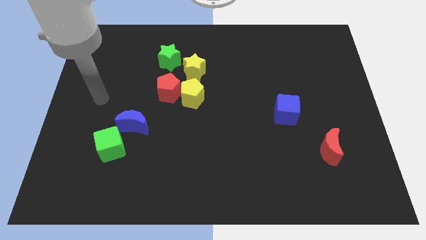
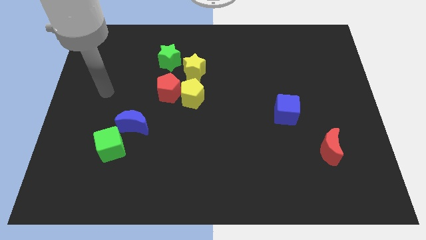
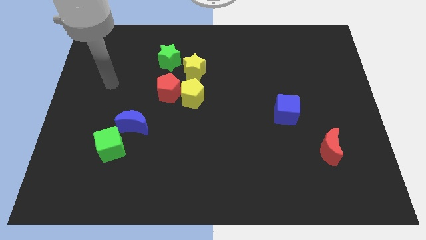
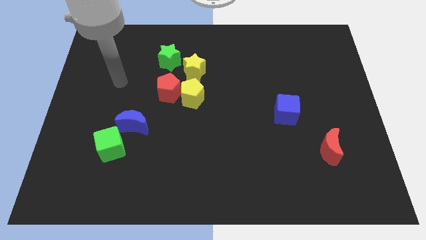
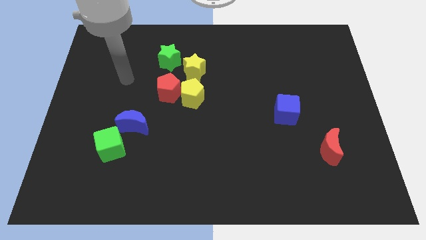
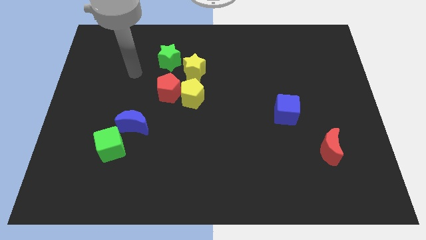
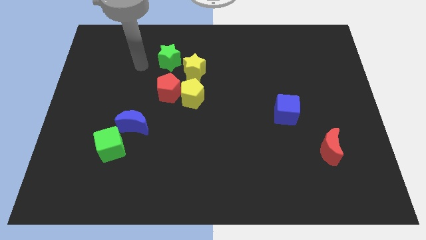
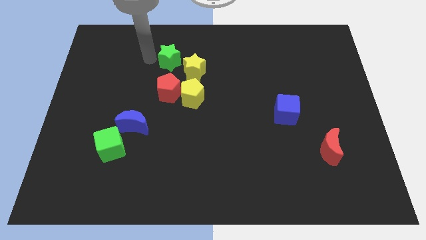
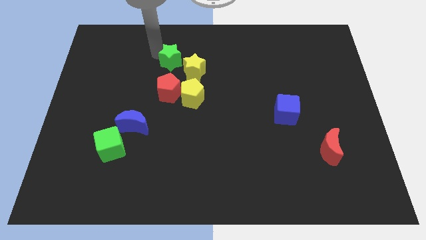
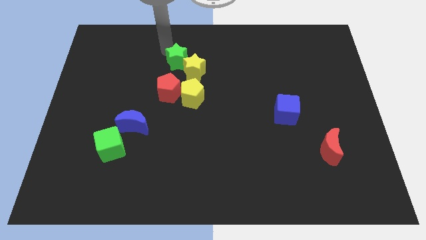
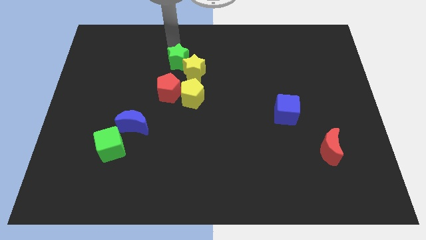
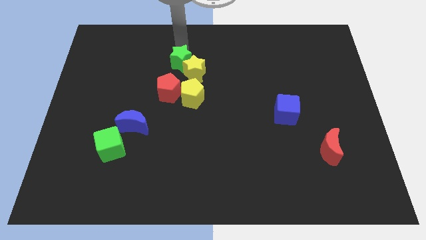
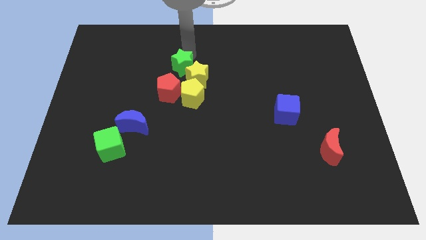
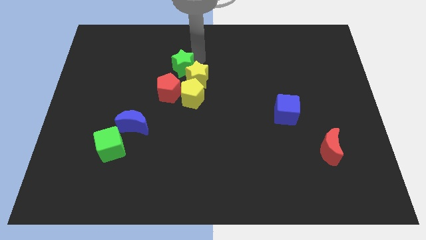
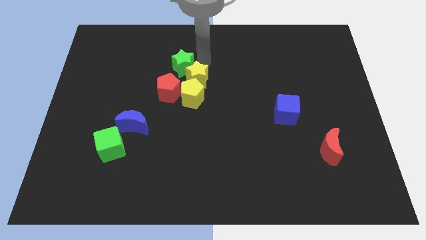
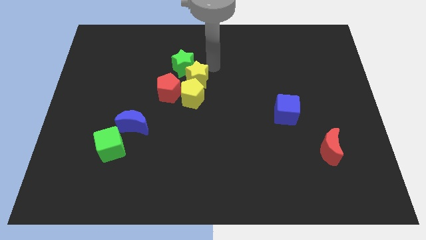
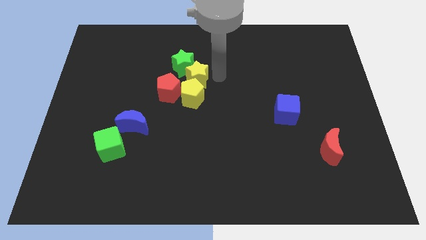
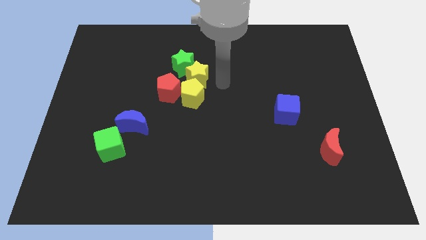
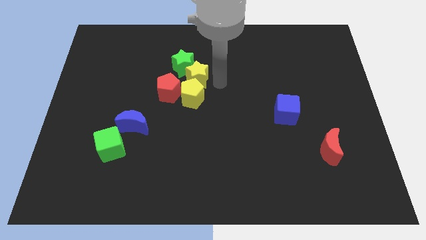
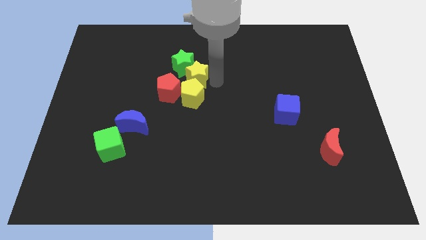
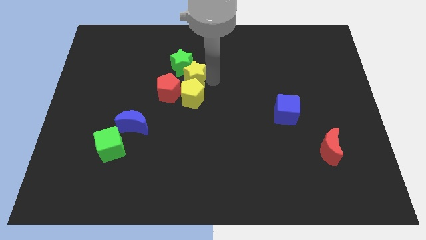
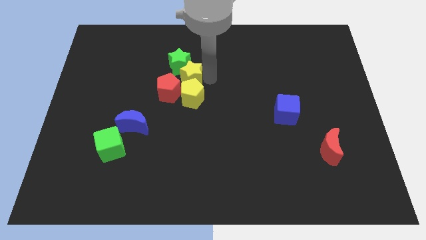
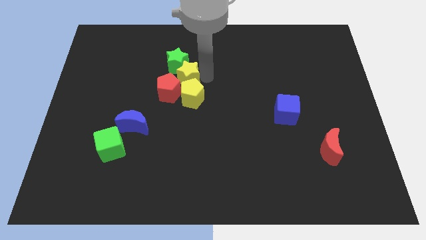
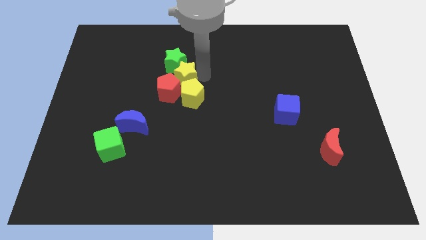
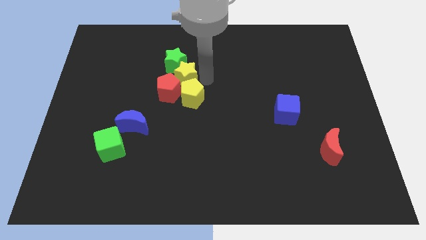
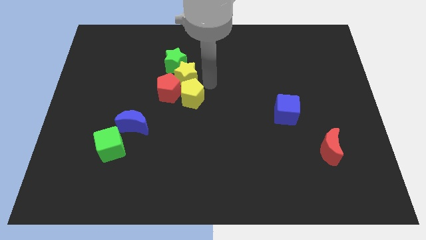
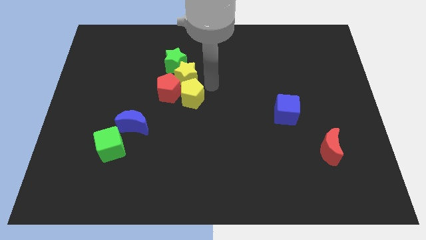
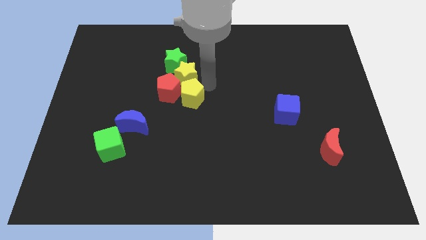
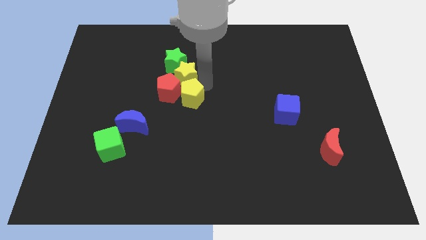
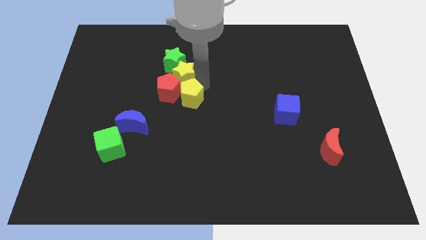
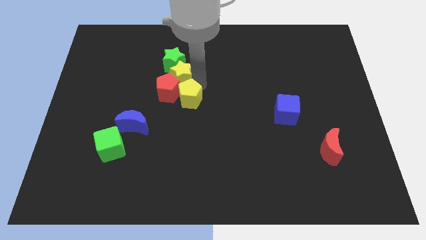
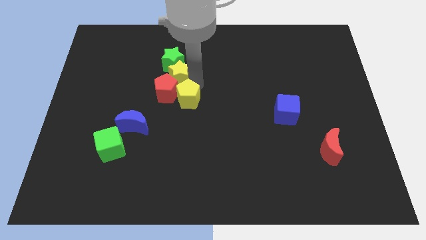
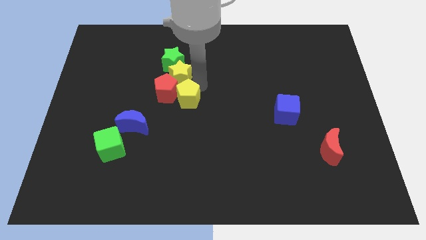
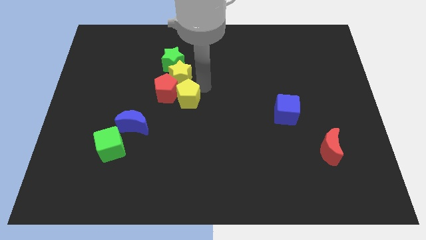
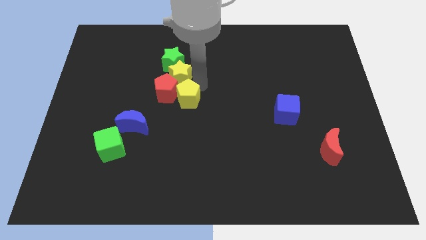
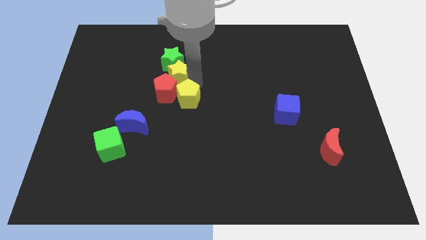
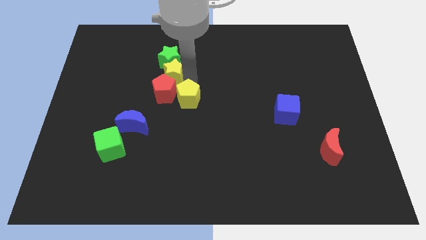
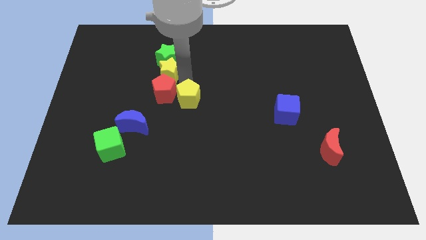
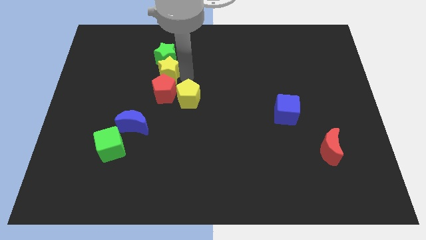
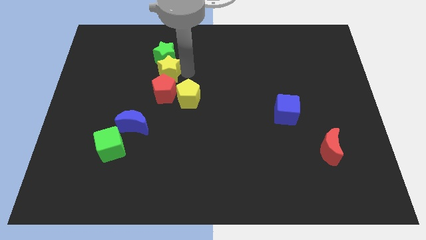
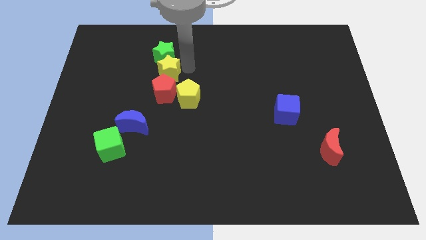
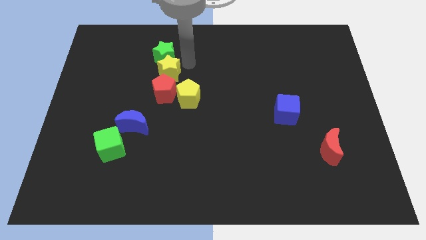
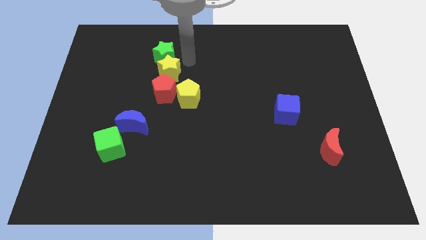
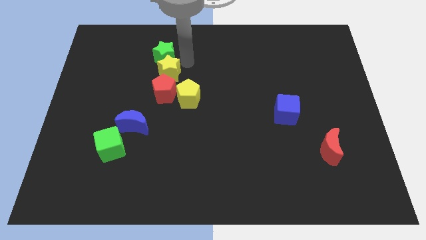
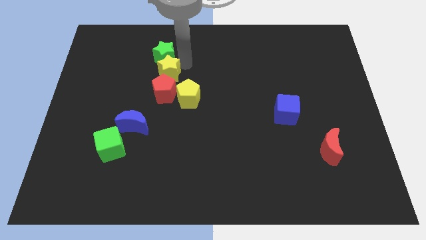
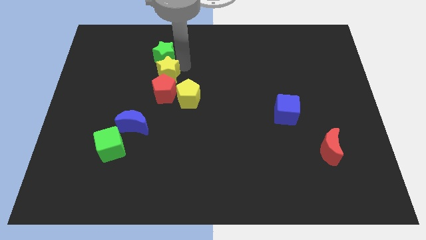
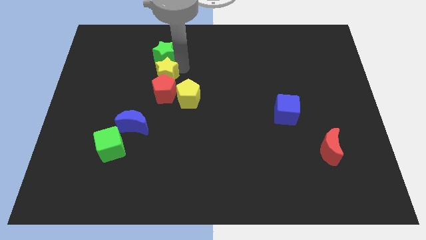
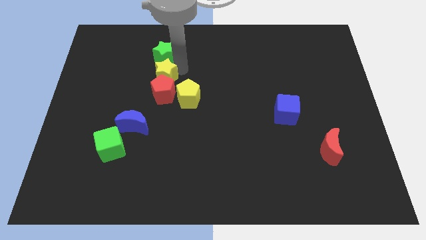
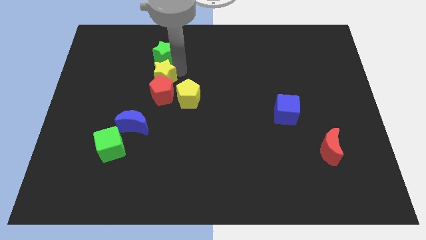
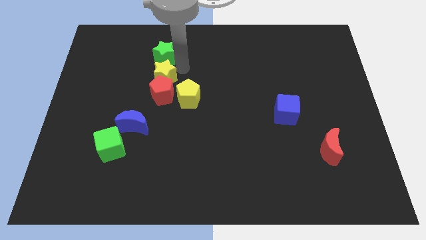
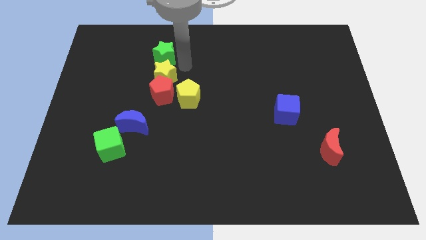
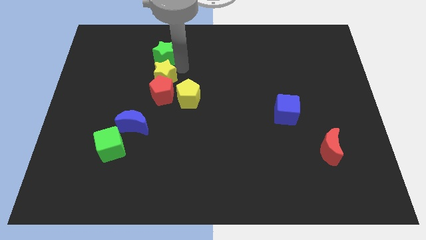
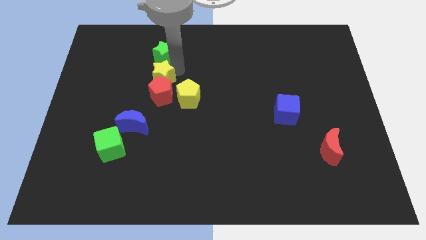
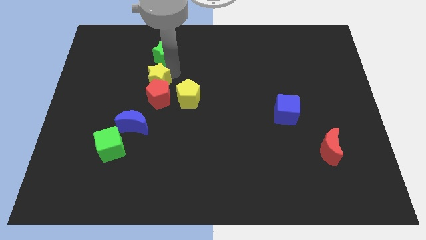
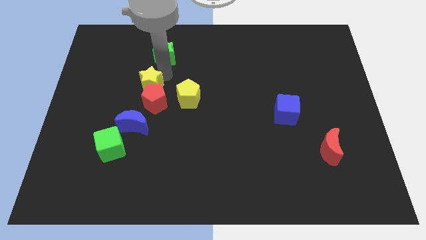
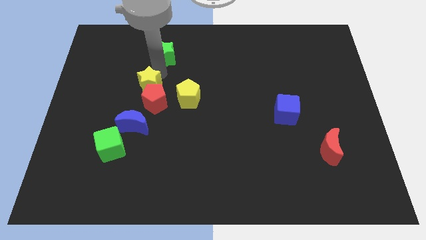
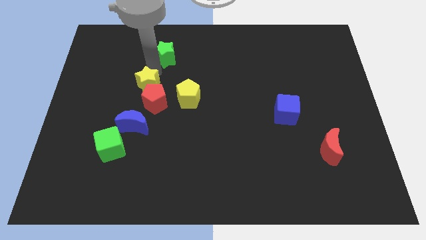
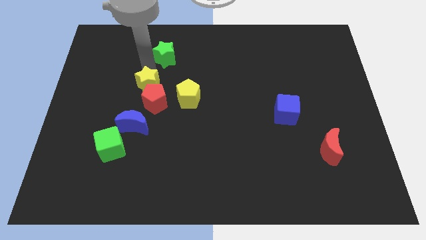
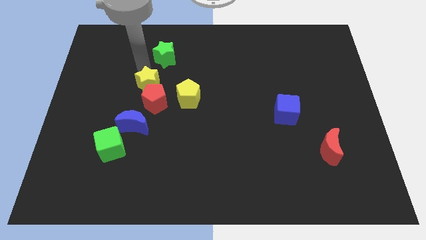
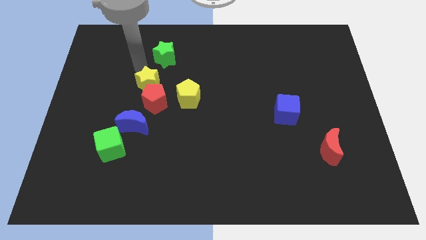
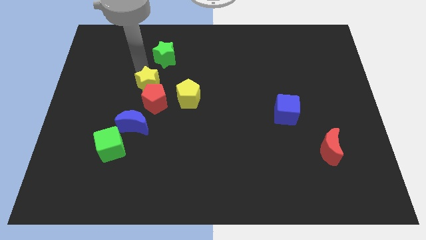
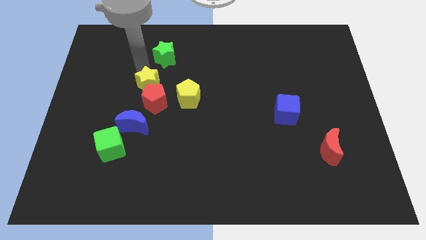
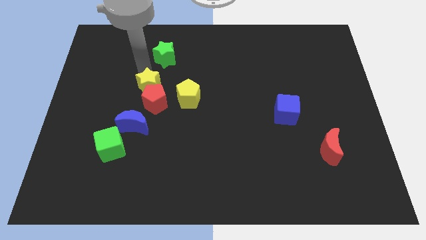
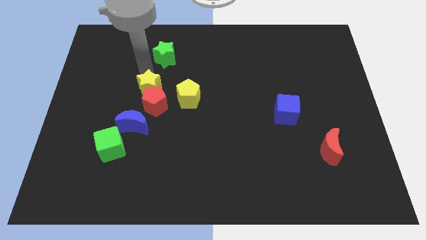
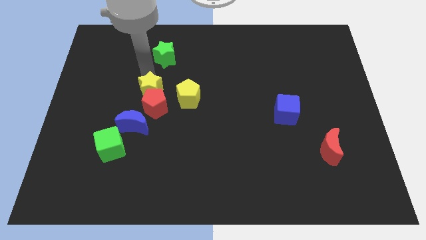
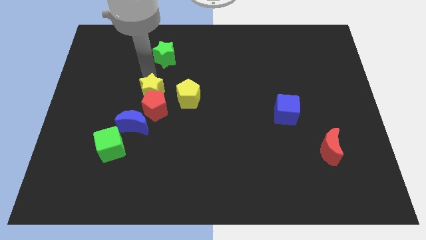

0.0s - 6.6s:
slide the yellow star to the top right of the blue moon
